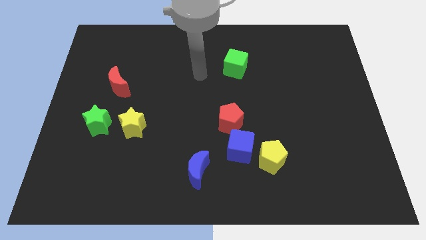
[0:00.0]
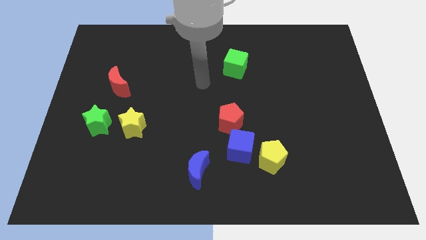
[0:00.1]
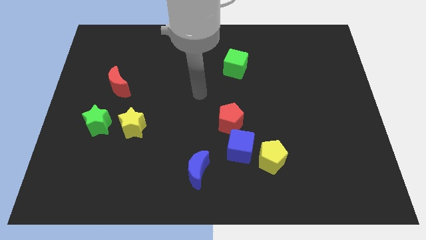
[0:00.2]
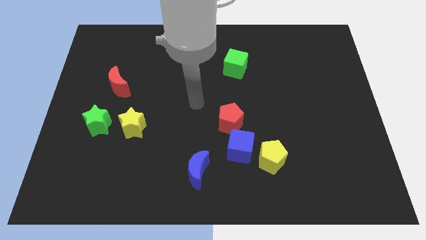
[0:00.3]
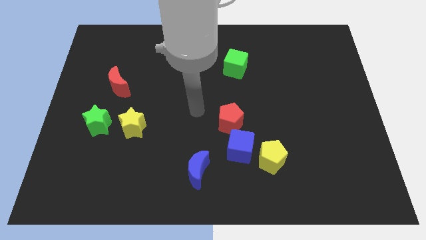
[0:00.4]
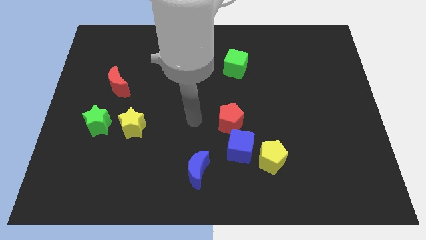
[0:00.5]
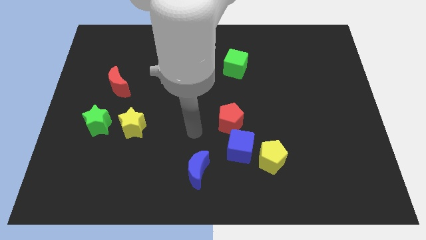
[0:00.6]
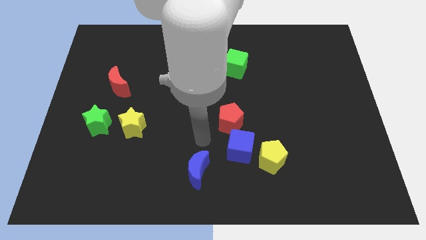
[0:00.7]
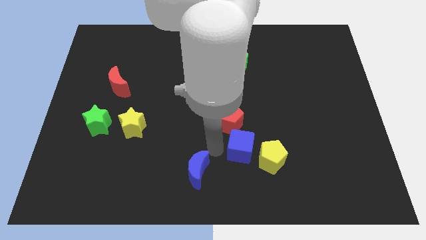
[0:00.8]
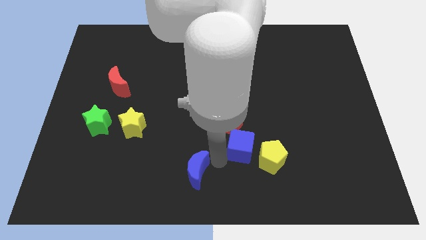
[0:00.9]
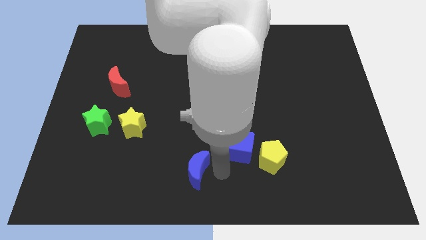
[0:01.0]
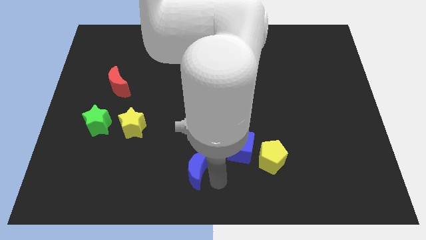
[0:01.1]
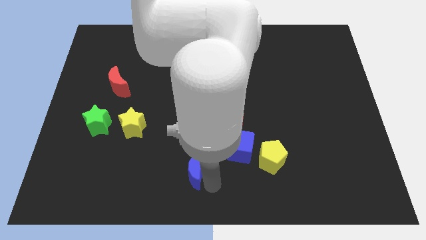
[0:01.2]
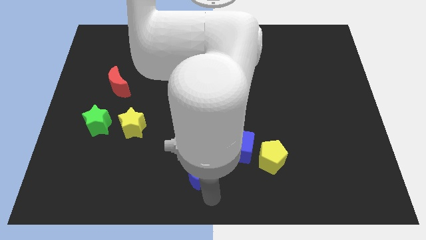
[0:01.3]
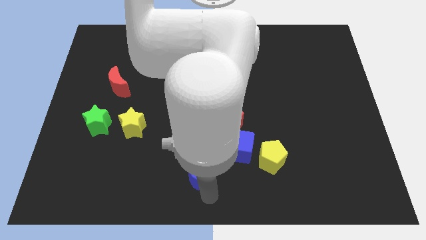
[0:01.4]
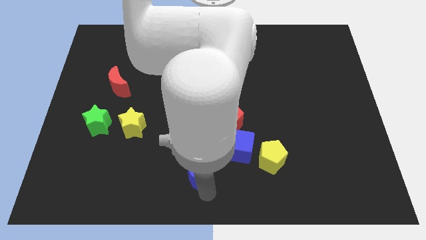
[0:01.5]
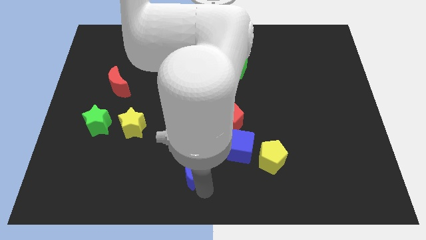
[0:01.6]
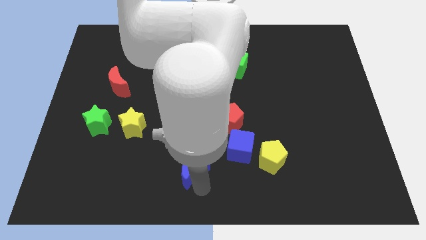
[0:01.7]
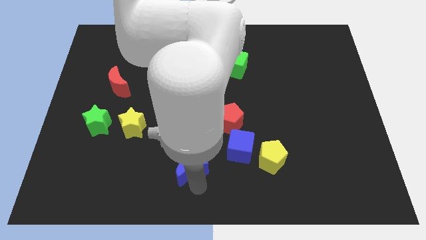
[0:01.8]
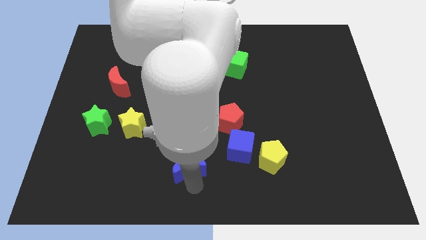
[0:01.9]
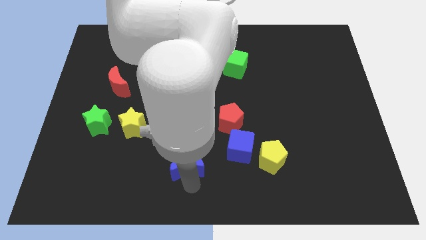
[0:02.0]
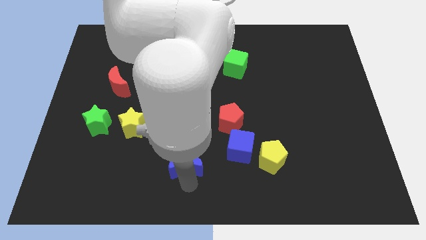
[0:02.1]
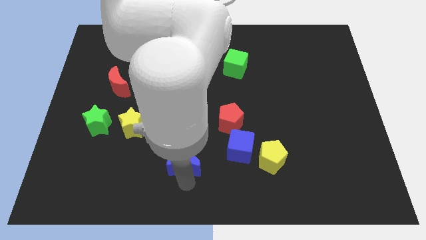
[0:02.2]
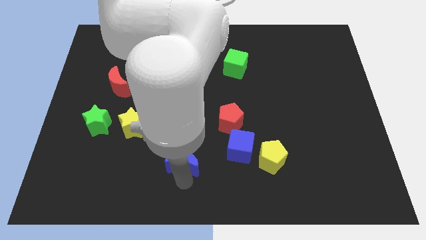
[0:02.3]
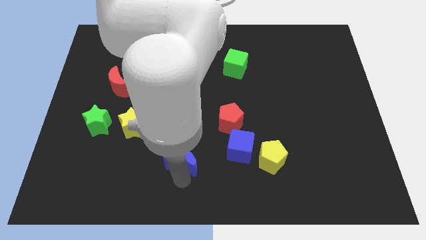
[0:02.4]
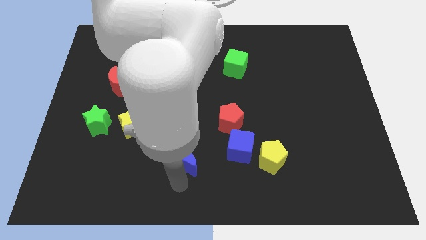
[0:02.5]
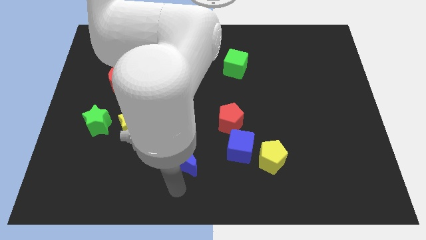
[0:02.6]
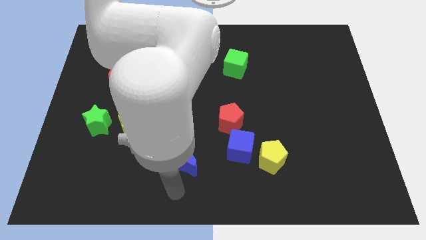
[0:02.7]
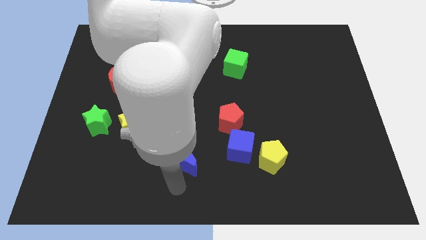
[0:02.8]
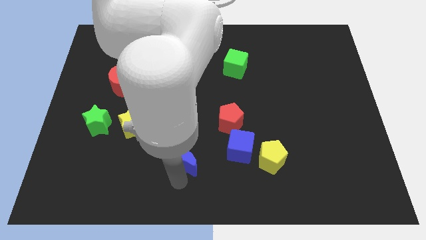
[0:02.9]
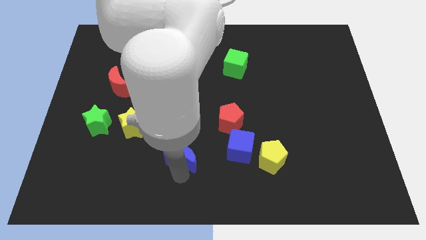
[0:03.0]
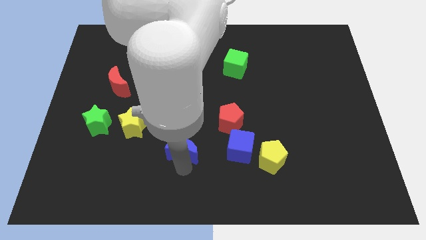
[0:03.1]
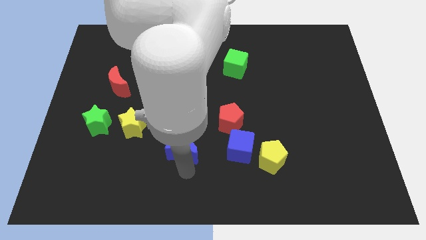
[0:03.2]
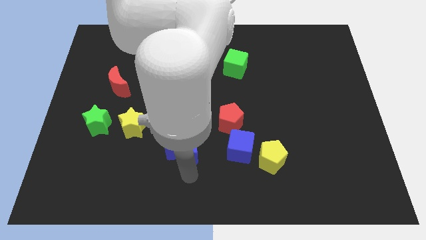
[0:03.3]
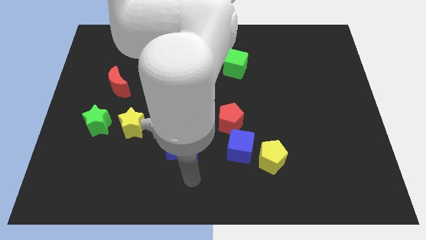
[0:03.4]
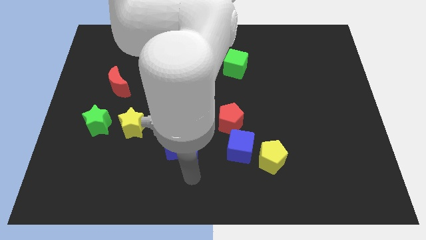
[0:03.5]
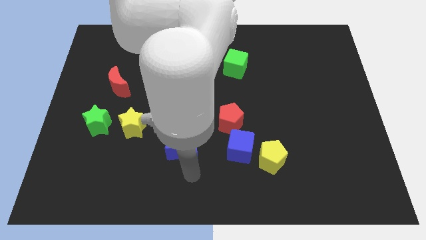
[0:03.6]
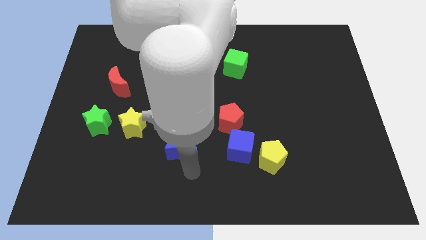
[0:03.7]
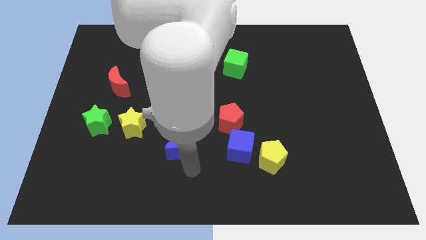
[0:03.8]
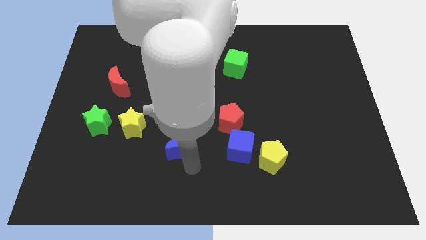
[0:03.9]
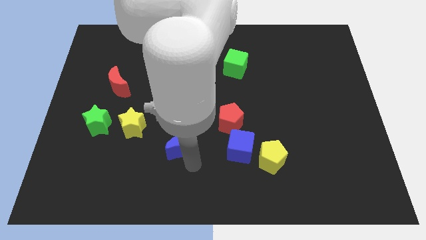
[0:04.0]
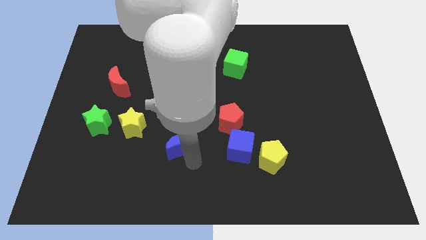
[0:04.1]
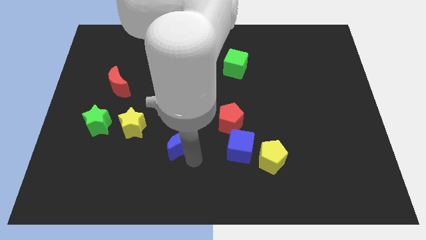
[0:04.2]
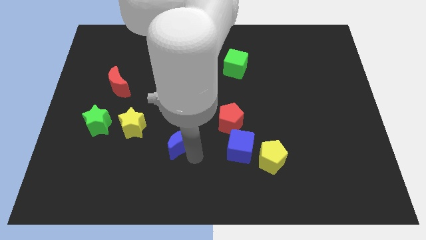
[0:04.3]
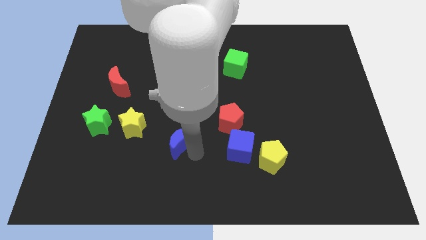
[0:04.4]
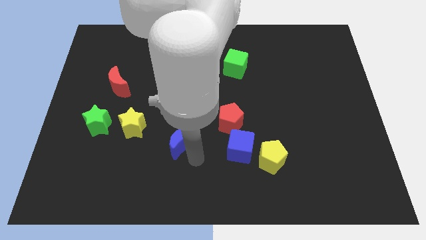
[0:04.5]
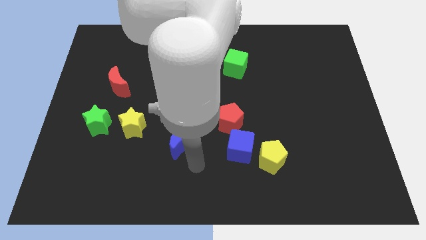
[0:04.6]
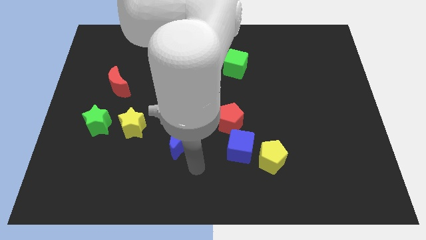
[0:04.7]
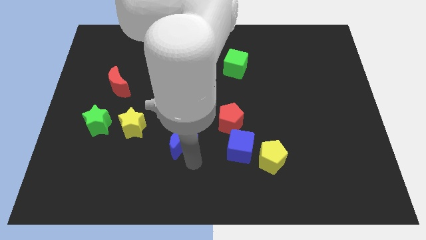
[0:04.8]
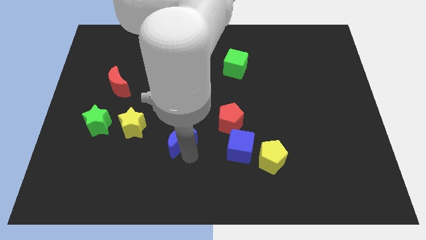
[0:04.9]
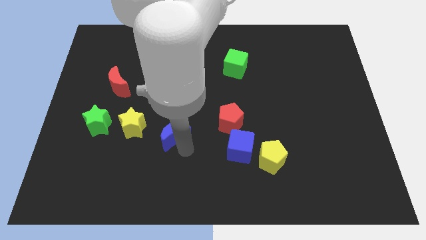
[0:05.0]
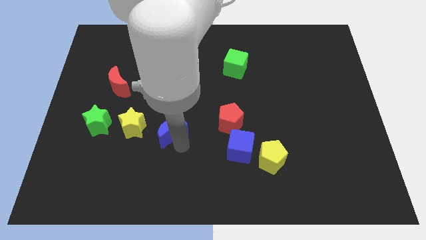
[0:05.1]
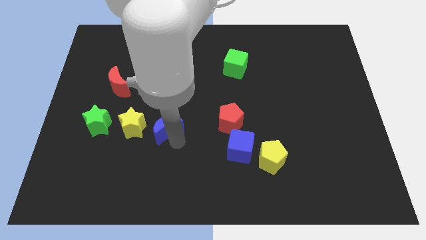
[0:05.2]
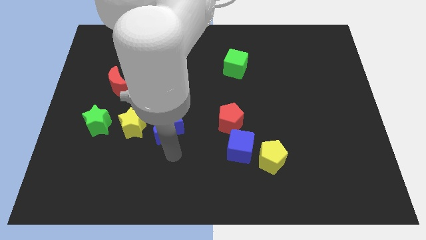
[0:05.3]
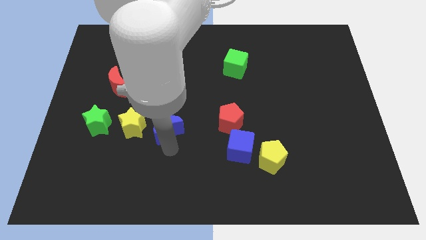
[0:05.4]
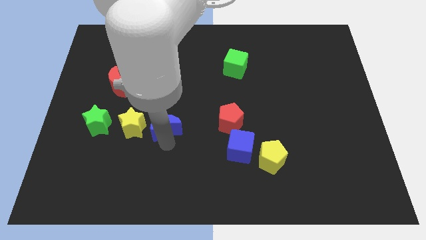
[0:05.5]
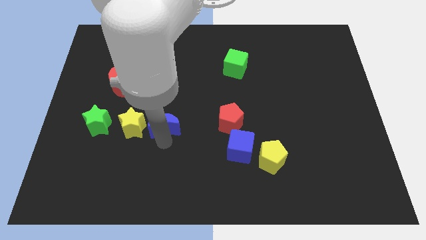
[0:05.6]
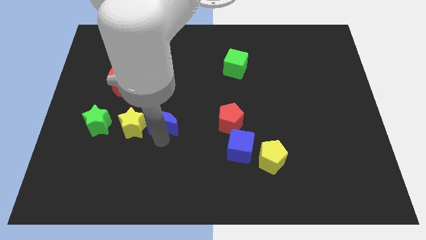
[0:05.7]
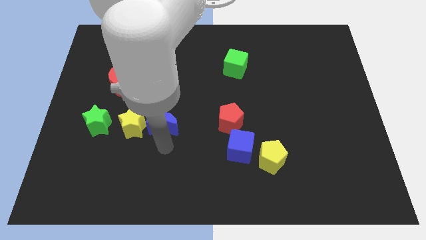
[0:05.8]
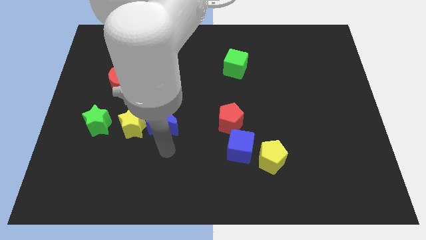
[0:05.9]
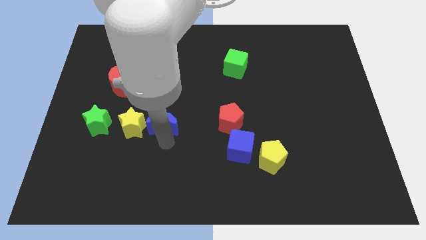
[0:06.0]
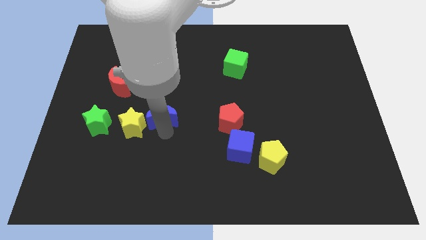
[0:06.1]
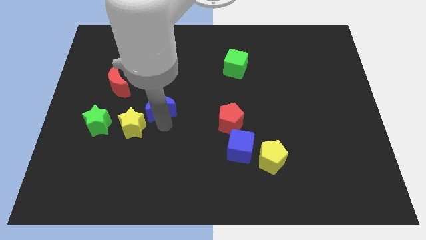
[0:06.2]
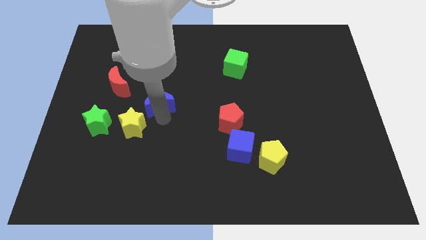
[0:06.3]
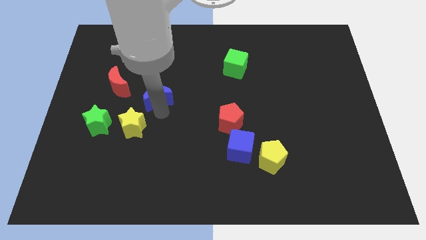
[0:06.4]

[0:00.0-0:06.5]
put the blue moon right of the red moon

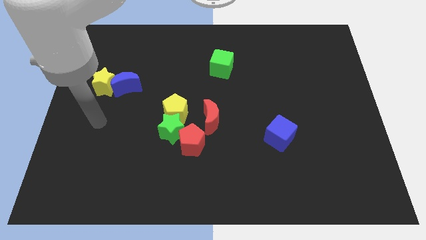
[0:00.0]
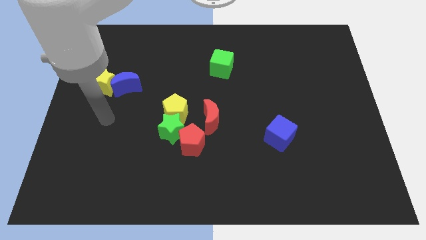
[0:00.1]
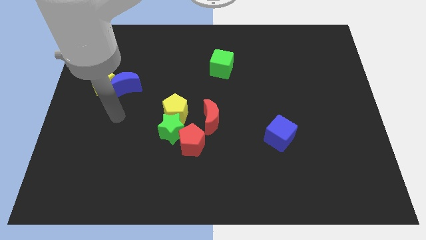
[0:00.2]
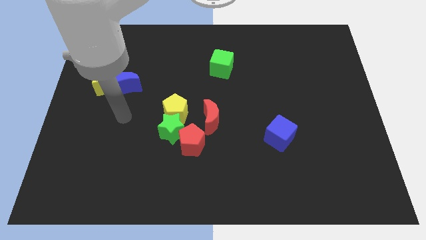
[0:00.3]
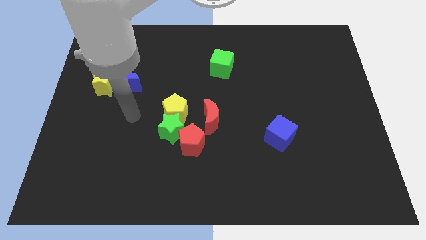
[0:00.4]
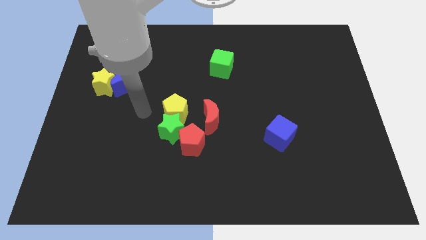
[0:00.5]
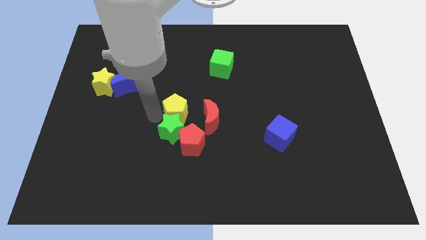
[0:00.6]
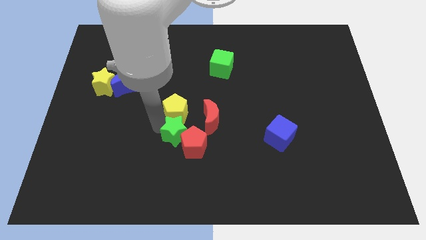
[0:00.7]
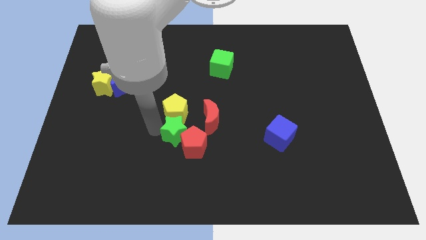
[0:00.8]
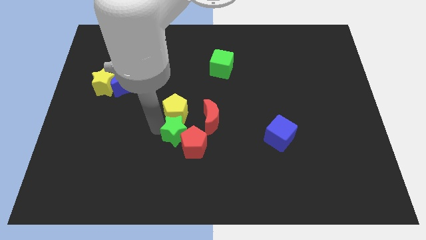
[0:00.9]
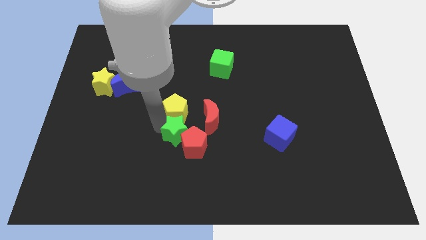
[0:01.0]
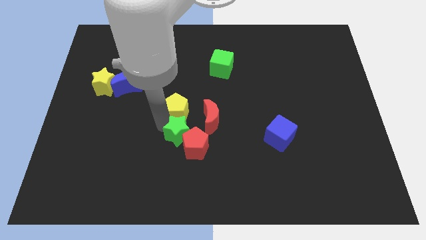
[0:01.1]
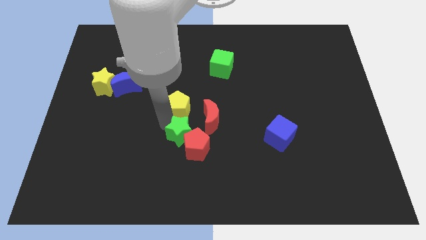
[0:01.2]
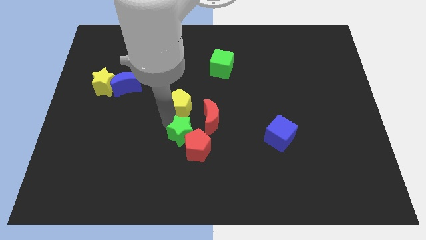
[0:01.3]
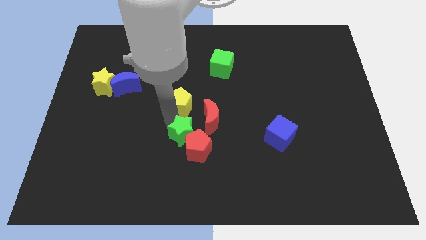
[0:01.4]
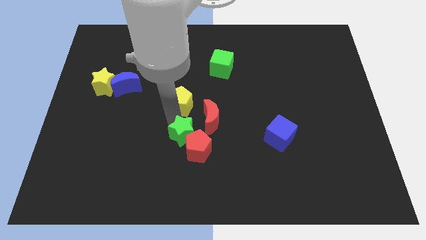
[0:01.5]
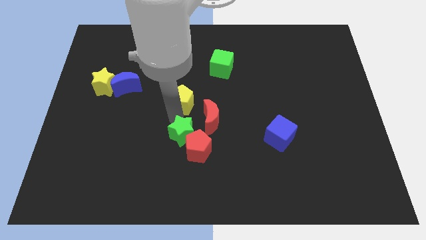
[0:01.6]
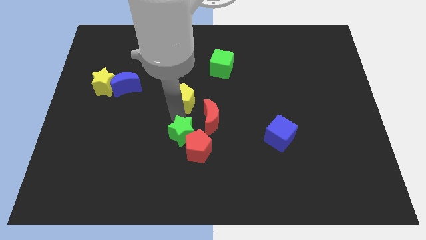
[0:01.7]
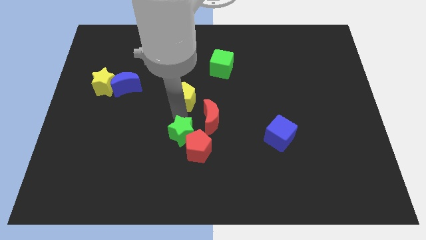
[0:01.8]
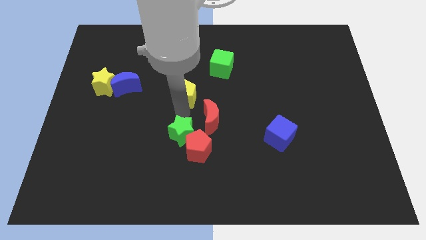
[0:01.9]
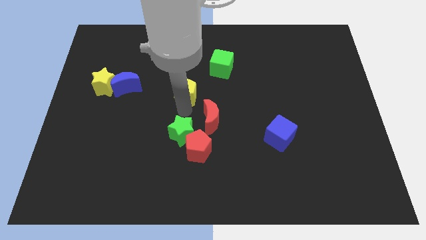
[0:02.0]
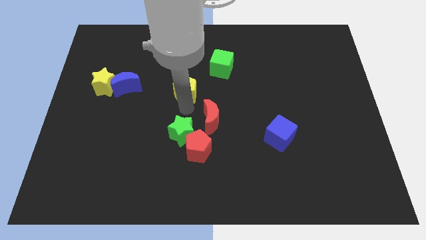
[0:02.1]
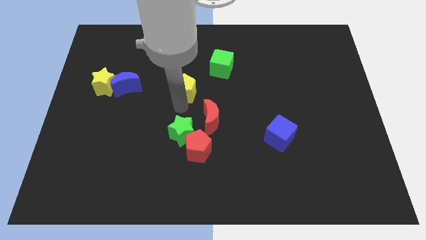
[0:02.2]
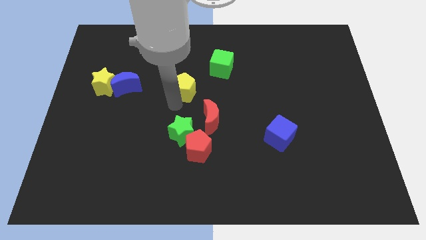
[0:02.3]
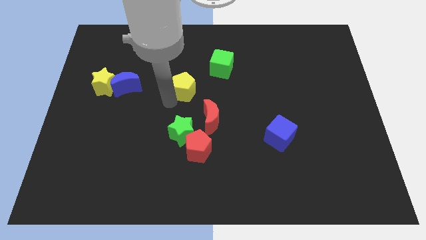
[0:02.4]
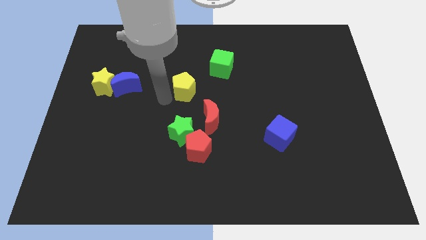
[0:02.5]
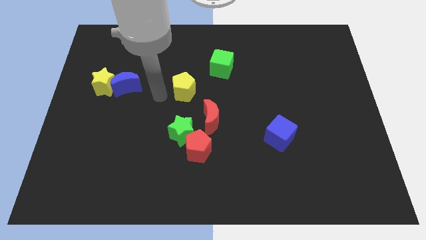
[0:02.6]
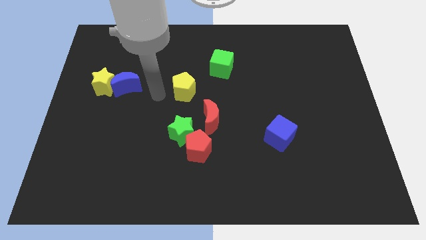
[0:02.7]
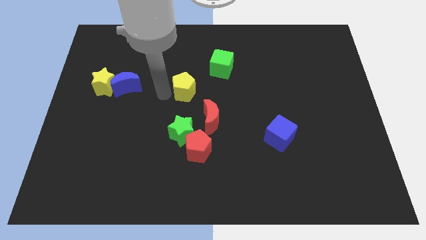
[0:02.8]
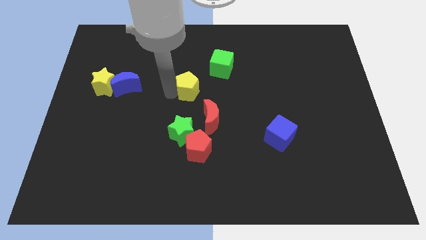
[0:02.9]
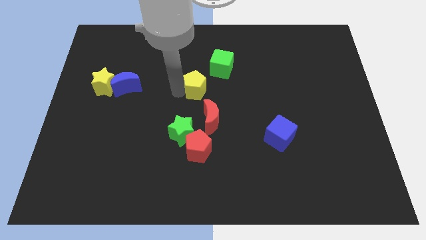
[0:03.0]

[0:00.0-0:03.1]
put the yellow pentagon above the red moon
